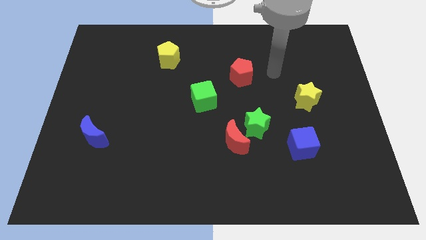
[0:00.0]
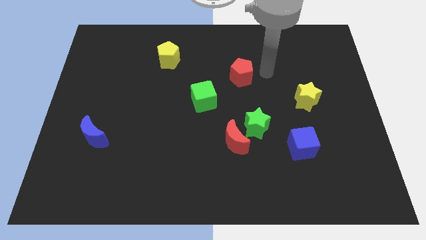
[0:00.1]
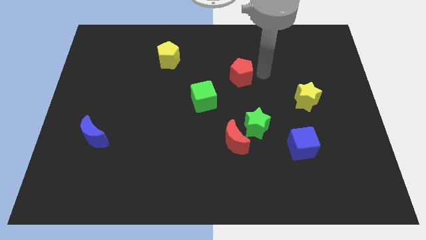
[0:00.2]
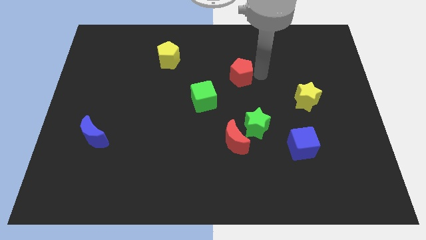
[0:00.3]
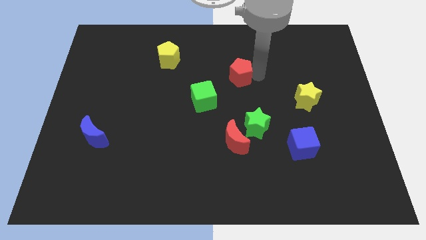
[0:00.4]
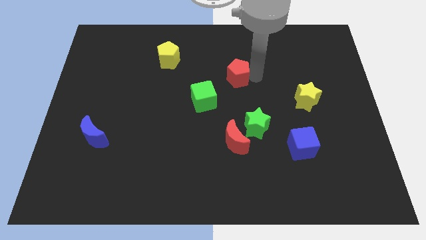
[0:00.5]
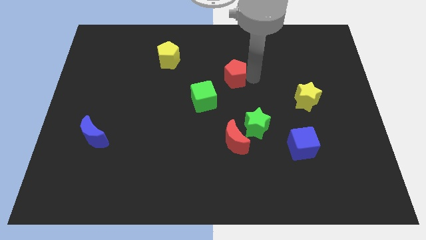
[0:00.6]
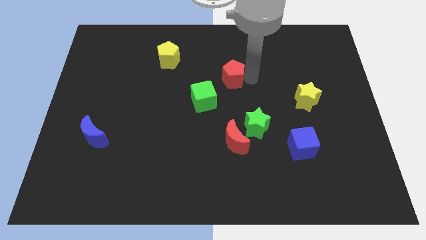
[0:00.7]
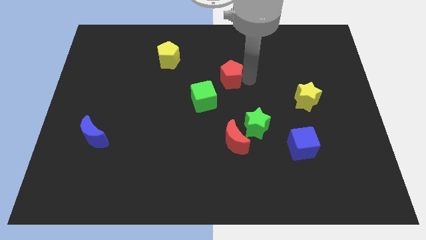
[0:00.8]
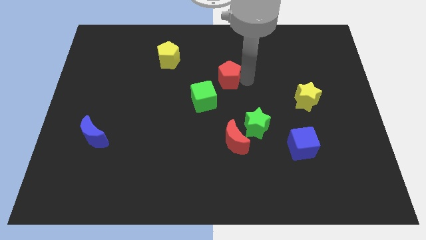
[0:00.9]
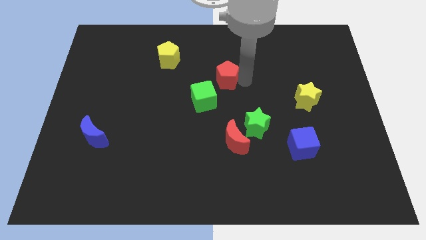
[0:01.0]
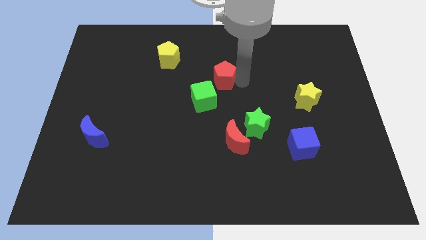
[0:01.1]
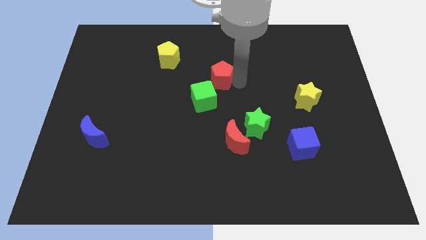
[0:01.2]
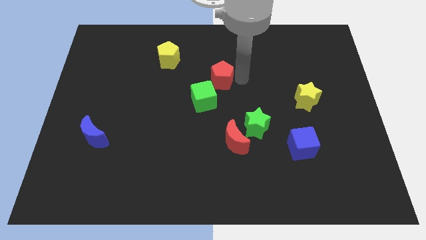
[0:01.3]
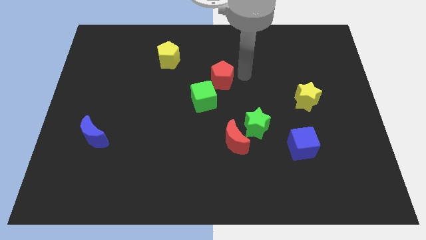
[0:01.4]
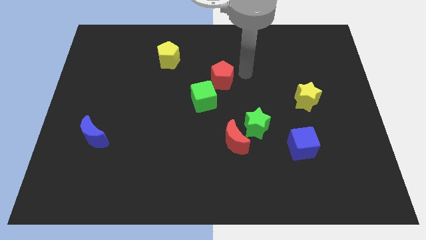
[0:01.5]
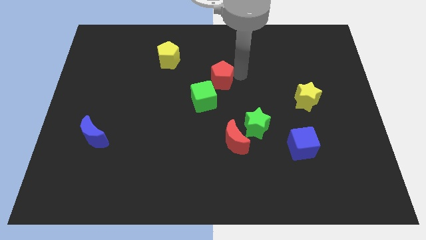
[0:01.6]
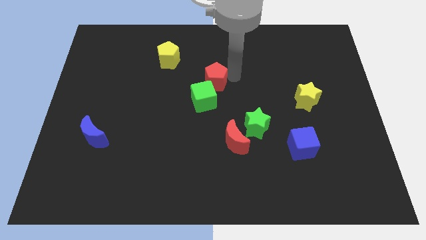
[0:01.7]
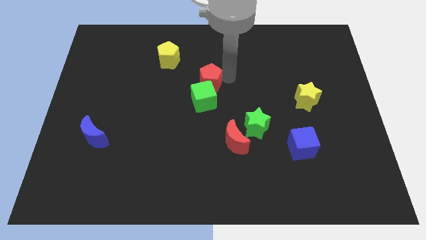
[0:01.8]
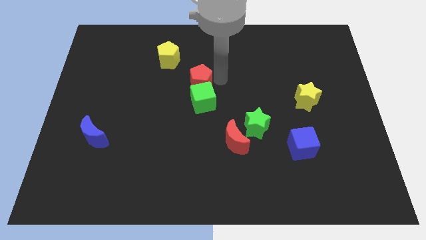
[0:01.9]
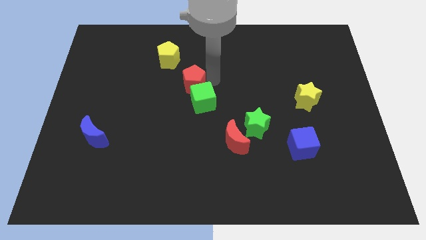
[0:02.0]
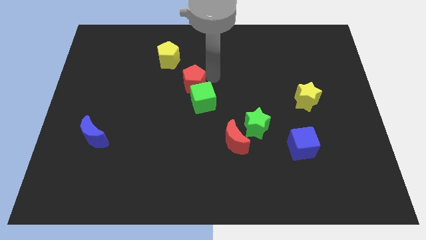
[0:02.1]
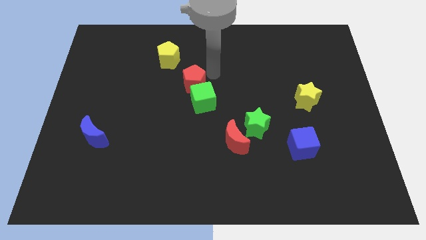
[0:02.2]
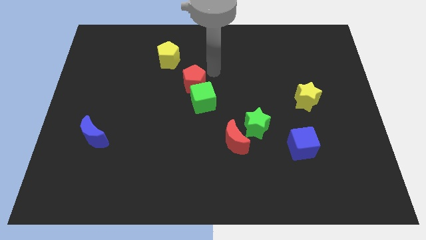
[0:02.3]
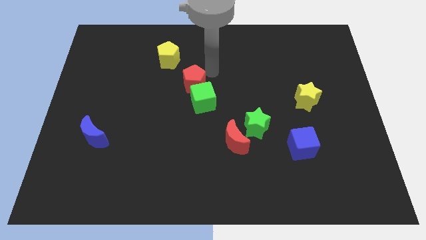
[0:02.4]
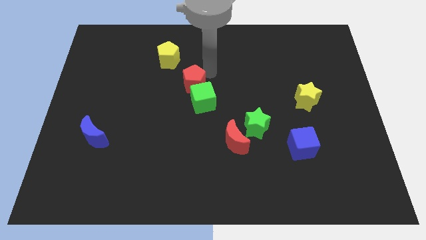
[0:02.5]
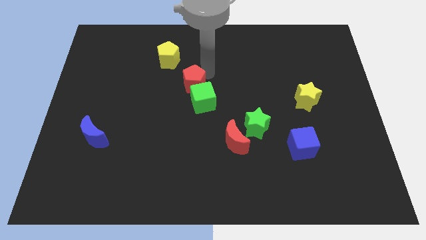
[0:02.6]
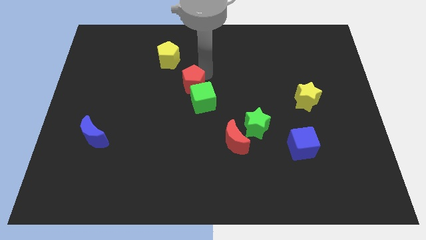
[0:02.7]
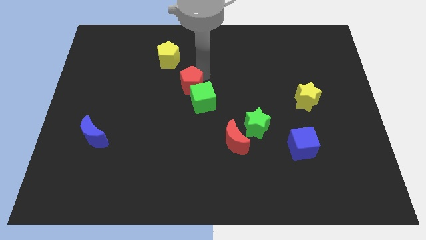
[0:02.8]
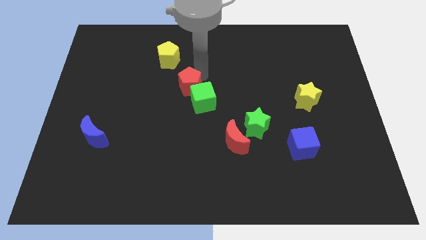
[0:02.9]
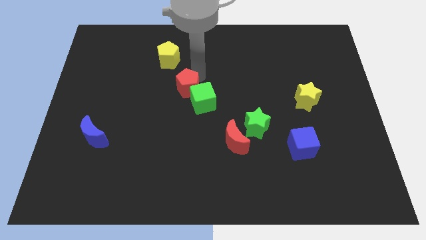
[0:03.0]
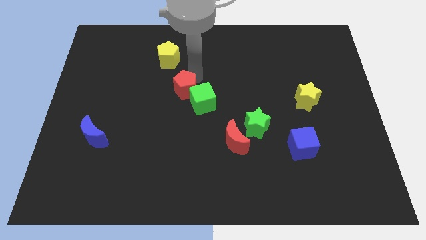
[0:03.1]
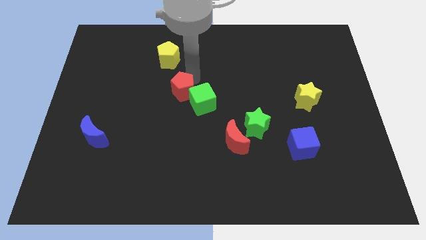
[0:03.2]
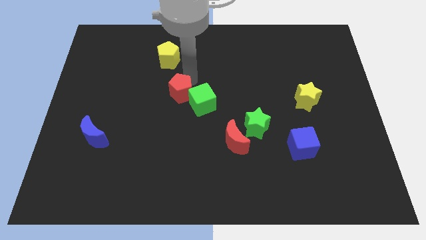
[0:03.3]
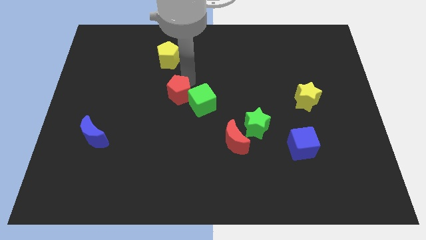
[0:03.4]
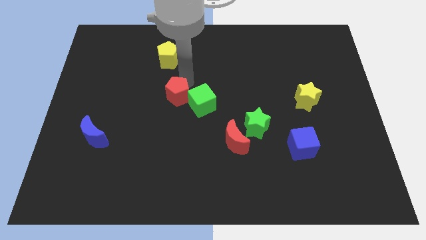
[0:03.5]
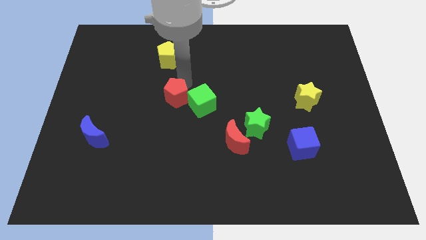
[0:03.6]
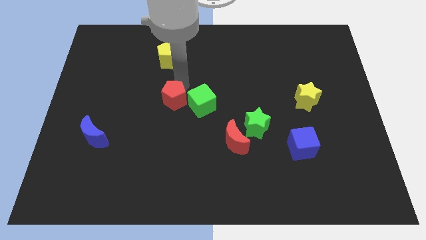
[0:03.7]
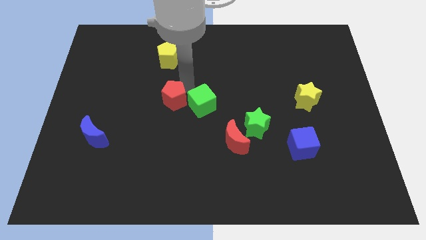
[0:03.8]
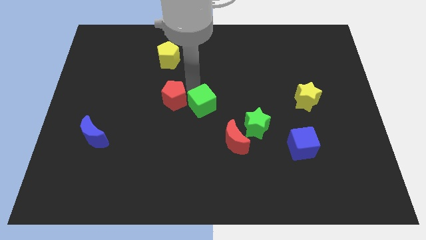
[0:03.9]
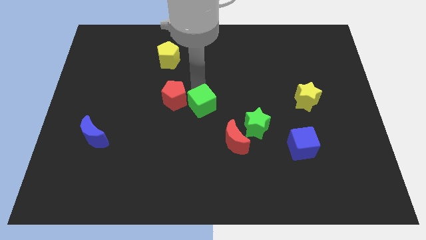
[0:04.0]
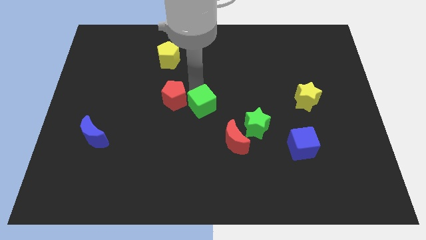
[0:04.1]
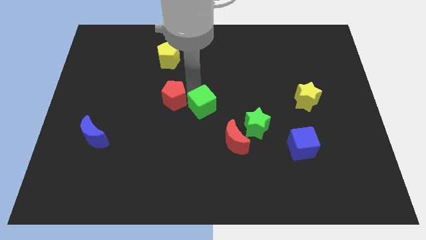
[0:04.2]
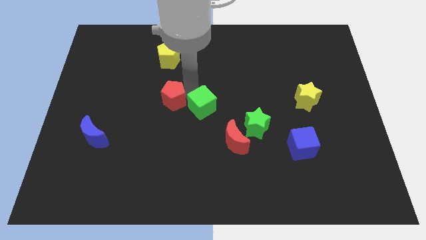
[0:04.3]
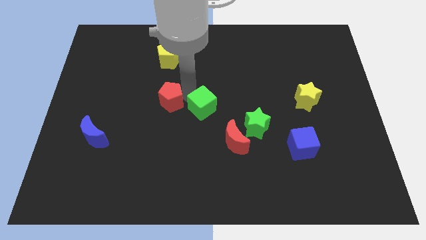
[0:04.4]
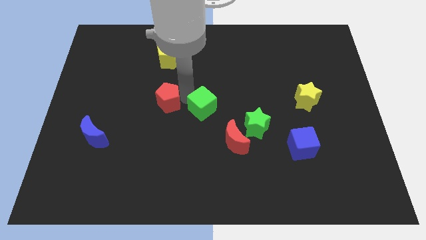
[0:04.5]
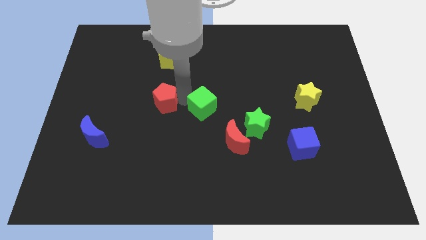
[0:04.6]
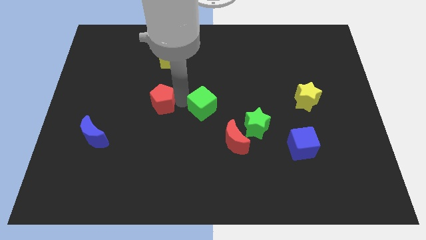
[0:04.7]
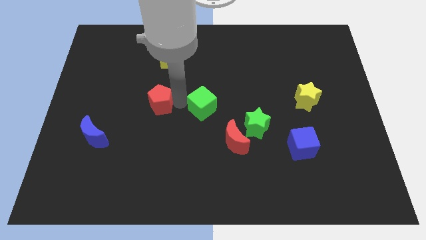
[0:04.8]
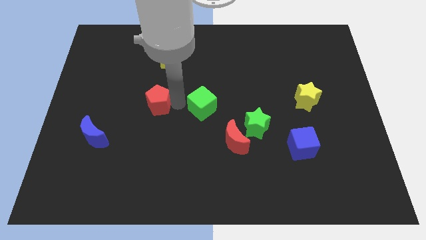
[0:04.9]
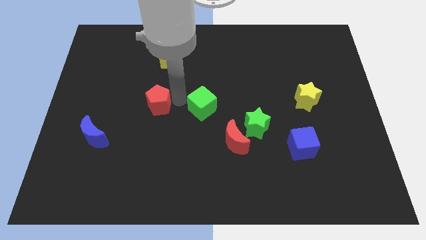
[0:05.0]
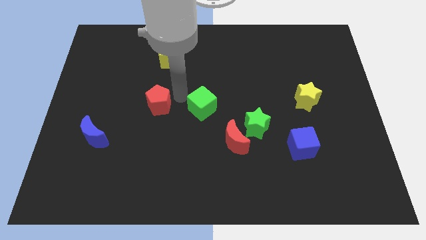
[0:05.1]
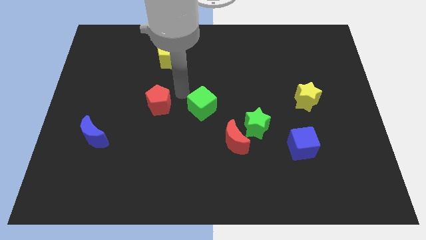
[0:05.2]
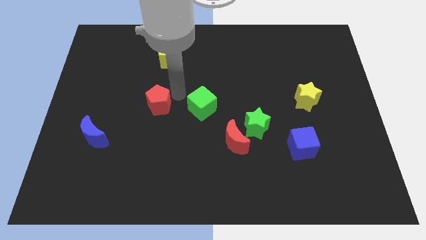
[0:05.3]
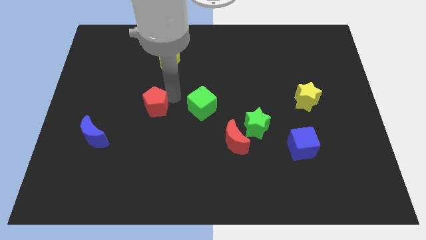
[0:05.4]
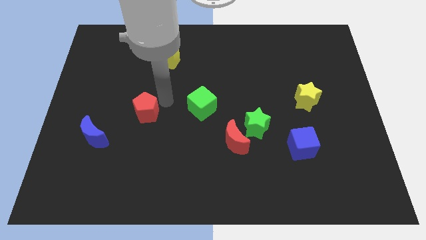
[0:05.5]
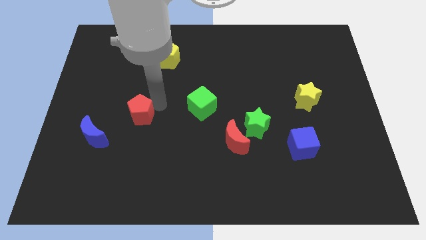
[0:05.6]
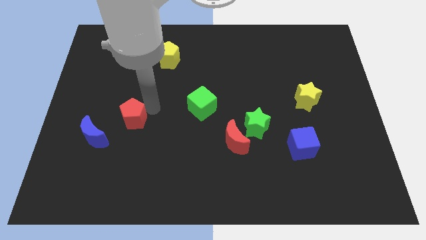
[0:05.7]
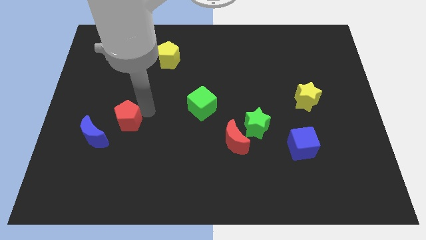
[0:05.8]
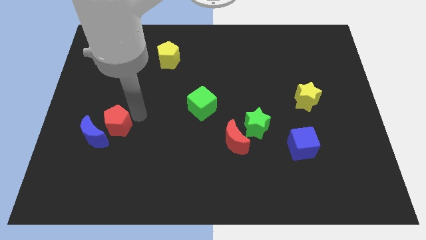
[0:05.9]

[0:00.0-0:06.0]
slide the red pentagon to the blue moon
